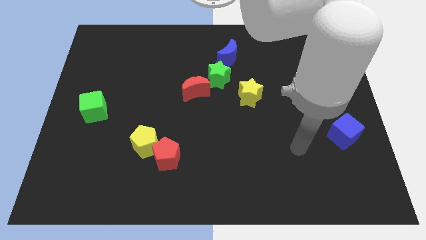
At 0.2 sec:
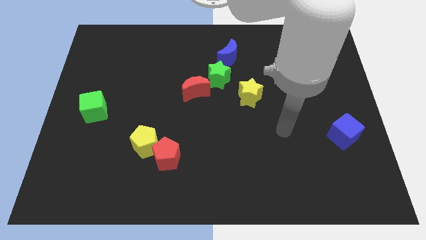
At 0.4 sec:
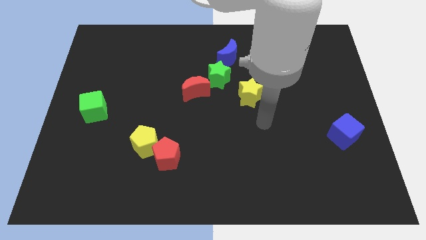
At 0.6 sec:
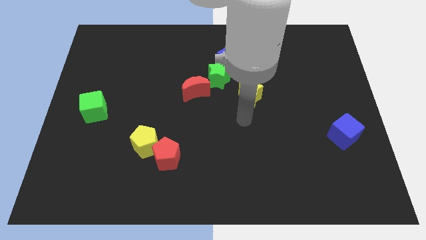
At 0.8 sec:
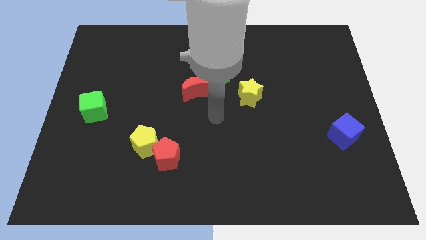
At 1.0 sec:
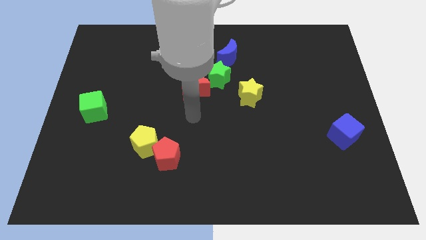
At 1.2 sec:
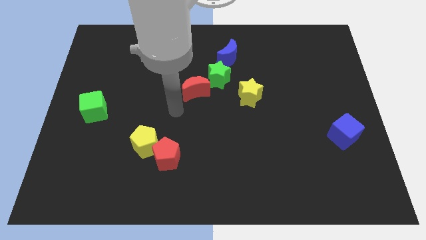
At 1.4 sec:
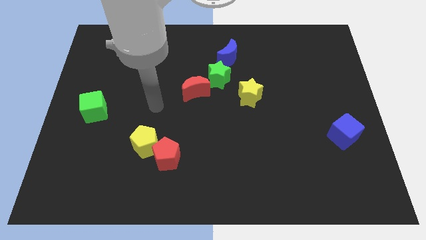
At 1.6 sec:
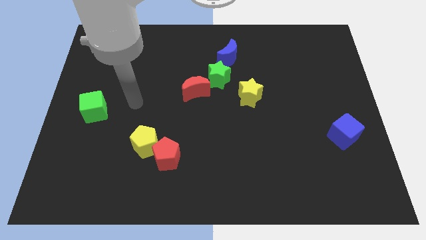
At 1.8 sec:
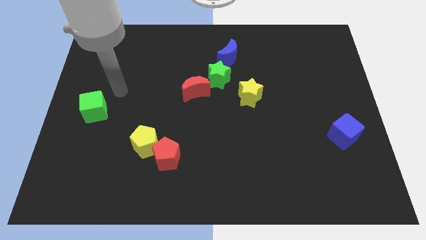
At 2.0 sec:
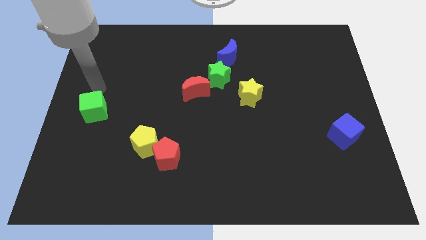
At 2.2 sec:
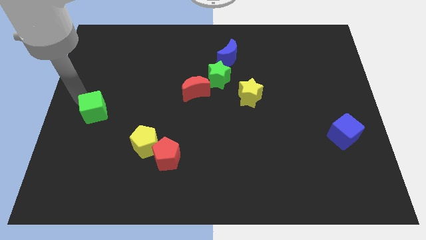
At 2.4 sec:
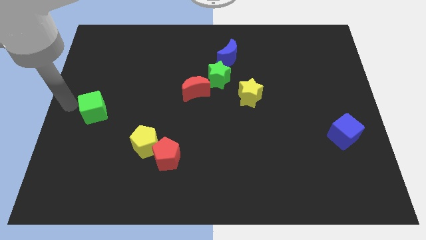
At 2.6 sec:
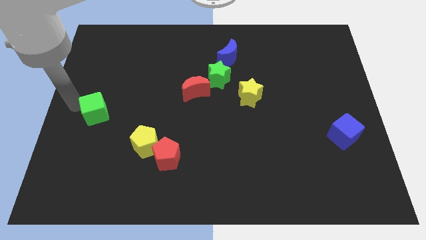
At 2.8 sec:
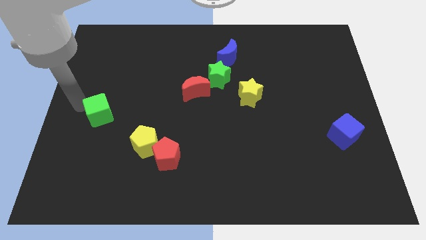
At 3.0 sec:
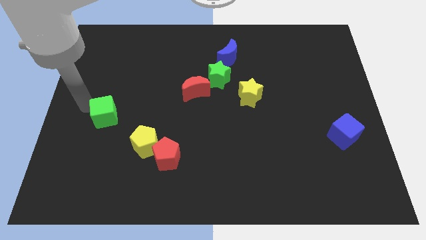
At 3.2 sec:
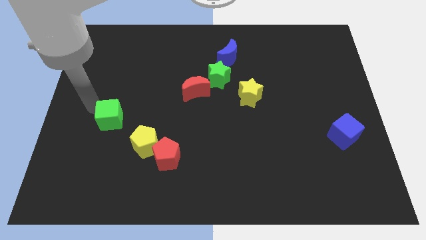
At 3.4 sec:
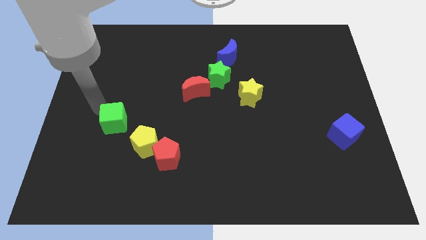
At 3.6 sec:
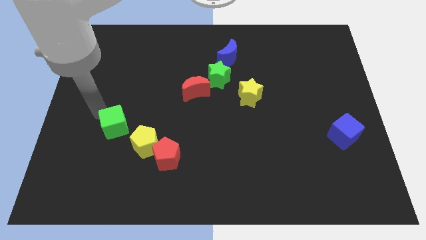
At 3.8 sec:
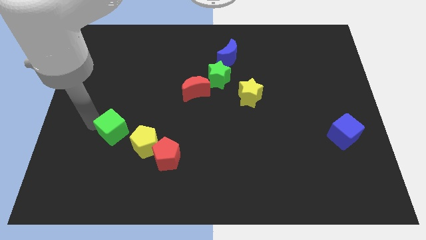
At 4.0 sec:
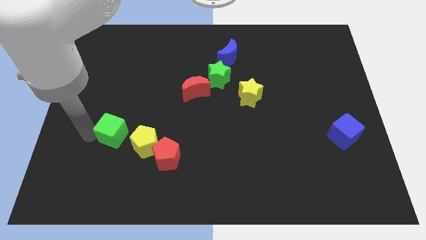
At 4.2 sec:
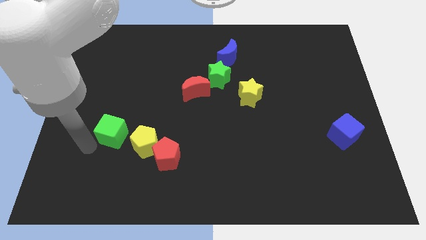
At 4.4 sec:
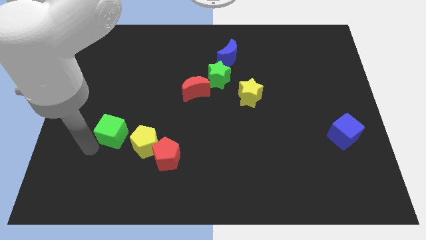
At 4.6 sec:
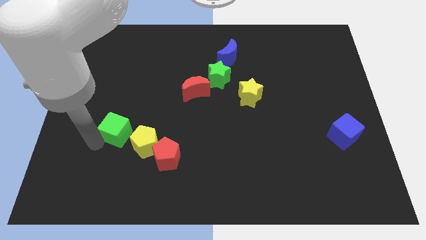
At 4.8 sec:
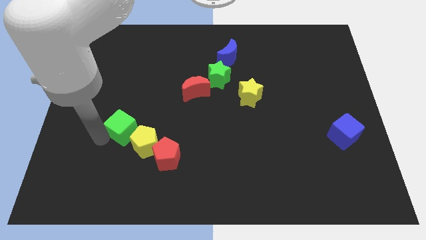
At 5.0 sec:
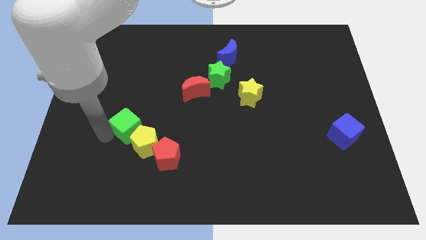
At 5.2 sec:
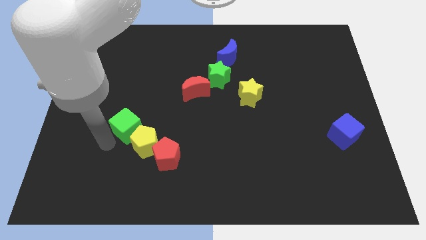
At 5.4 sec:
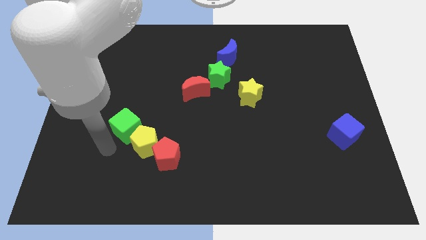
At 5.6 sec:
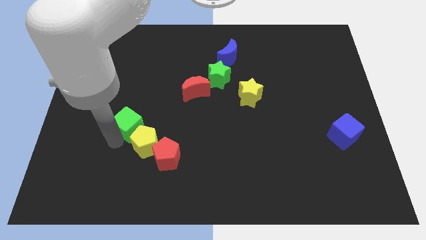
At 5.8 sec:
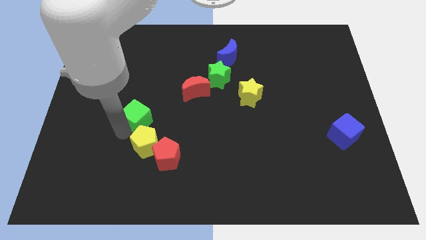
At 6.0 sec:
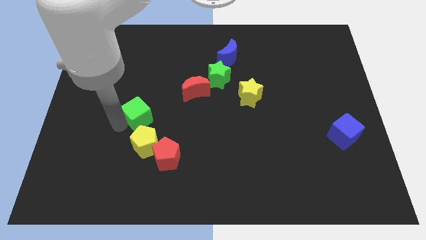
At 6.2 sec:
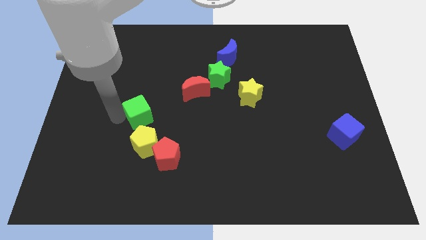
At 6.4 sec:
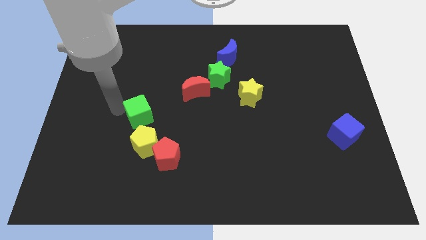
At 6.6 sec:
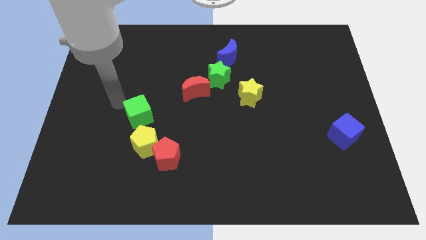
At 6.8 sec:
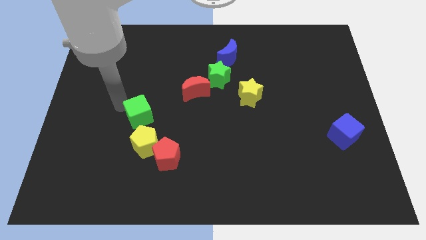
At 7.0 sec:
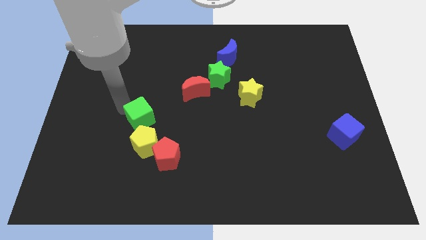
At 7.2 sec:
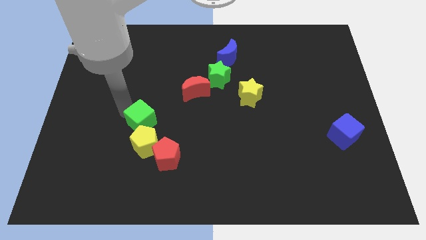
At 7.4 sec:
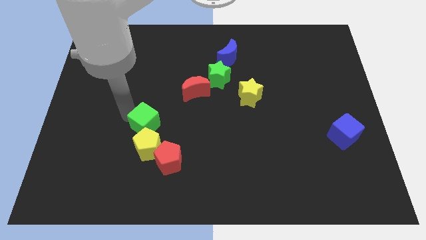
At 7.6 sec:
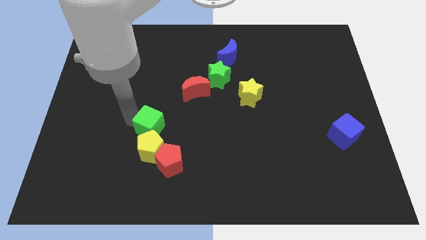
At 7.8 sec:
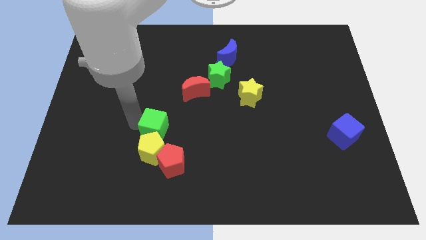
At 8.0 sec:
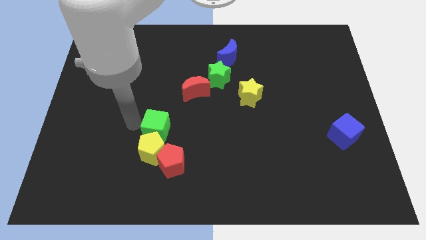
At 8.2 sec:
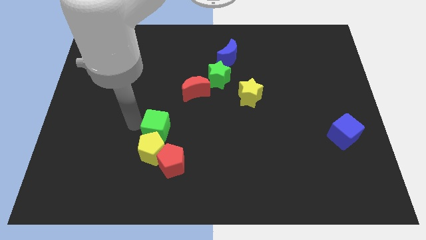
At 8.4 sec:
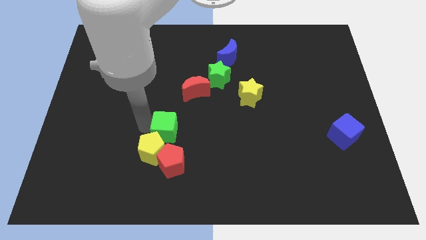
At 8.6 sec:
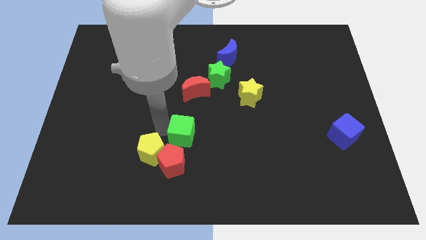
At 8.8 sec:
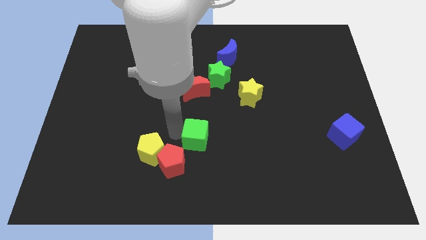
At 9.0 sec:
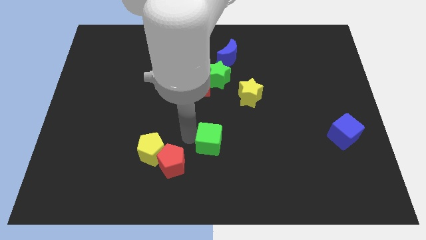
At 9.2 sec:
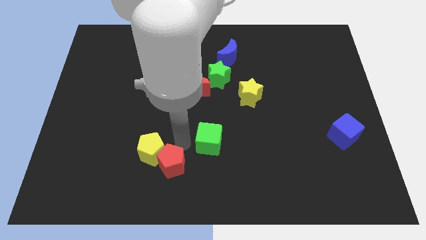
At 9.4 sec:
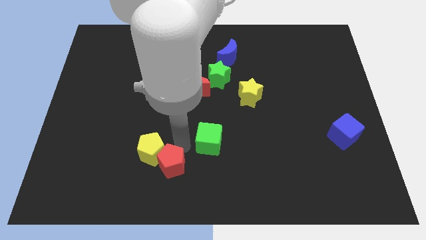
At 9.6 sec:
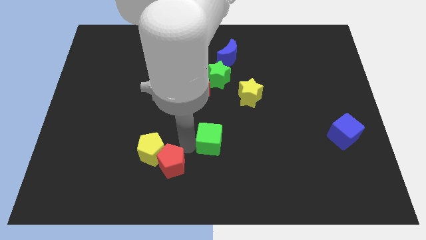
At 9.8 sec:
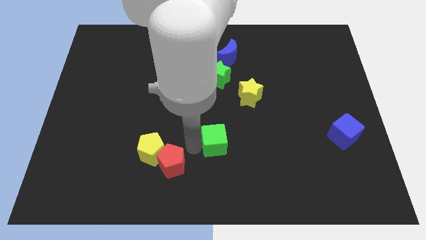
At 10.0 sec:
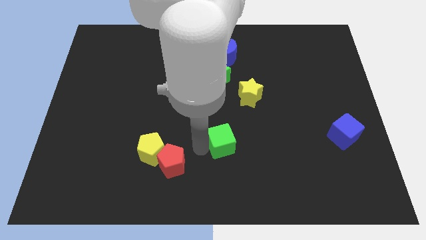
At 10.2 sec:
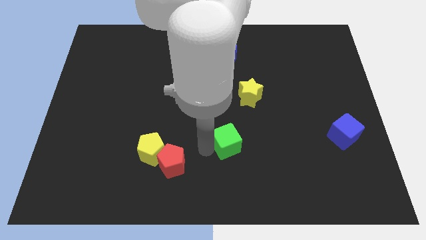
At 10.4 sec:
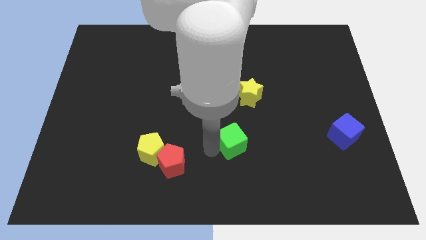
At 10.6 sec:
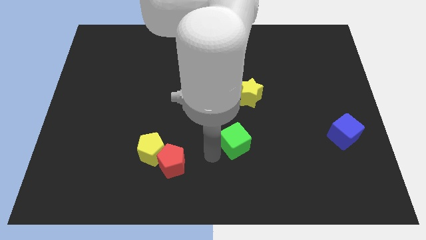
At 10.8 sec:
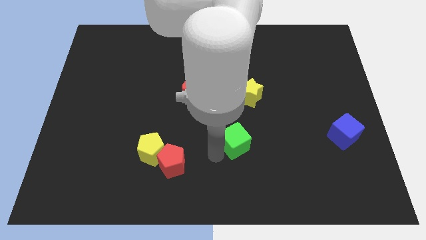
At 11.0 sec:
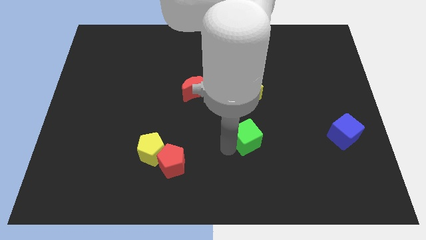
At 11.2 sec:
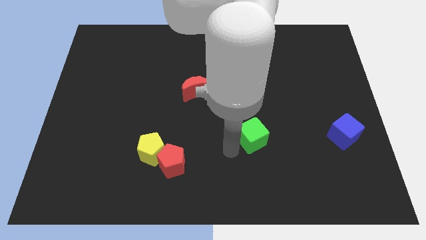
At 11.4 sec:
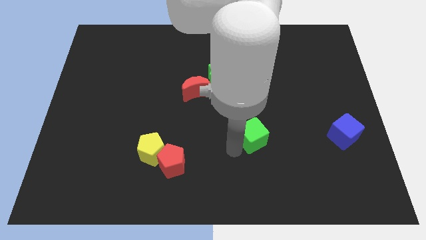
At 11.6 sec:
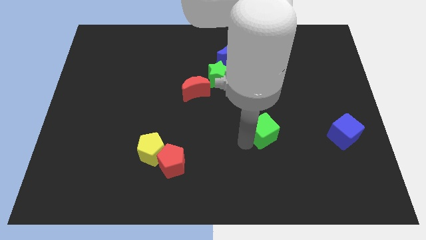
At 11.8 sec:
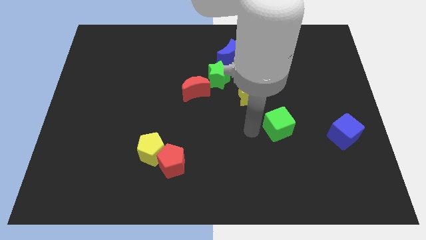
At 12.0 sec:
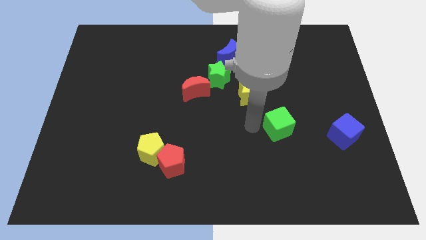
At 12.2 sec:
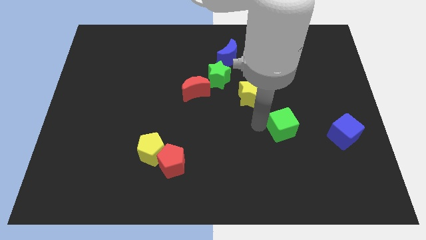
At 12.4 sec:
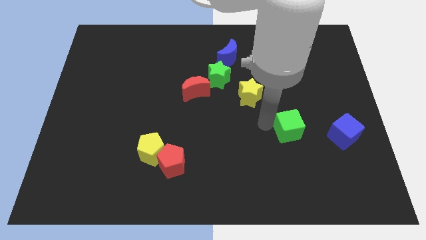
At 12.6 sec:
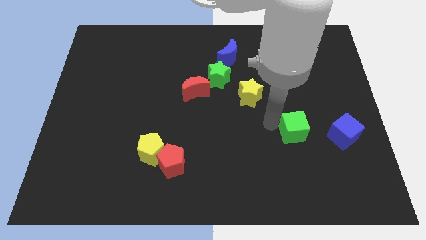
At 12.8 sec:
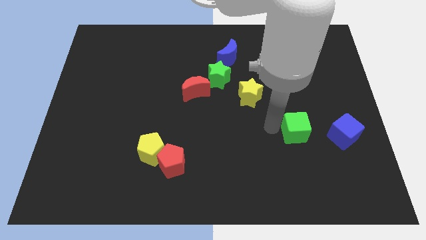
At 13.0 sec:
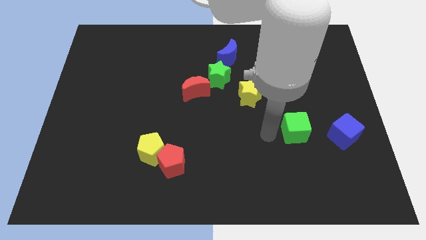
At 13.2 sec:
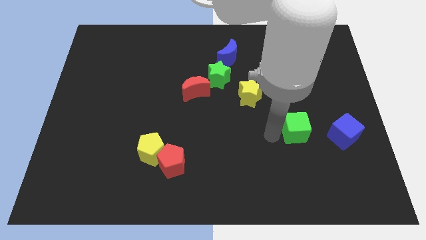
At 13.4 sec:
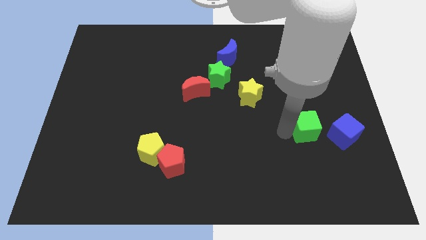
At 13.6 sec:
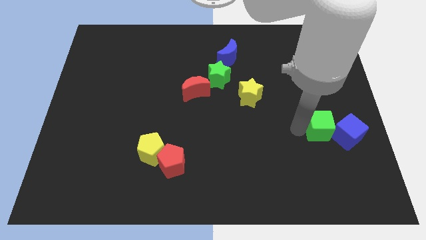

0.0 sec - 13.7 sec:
put the green cube next to the blue cube

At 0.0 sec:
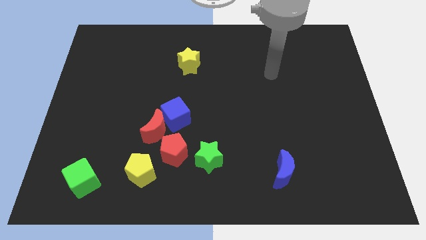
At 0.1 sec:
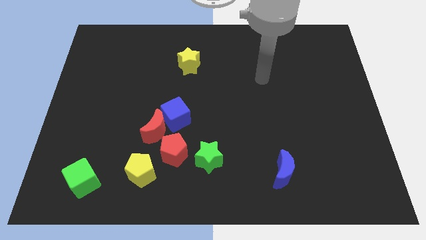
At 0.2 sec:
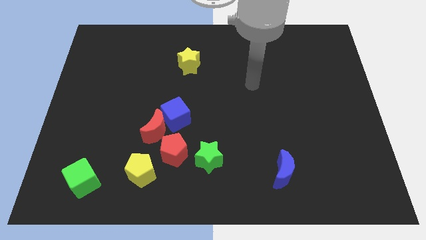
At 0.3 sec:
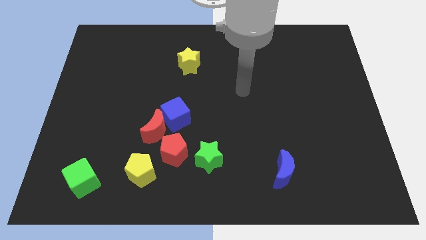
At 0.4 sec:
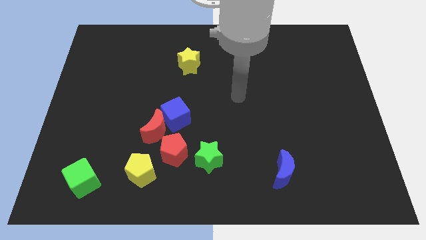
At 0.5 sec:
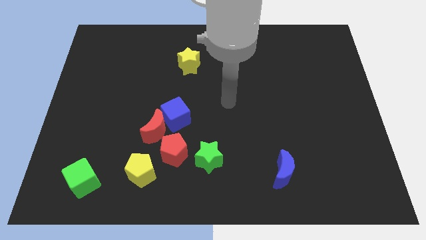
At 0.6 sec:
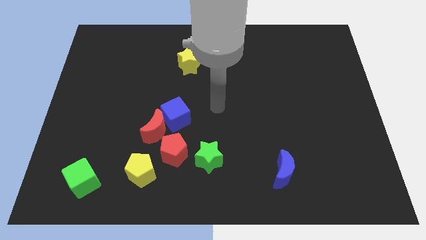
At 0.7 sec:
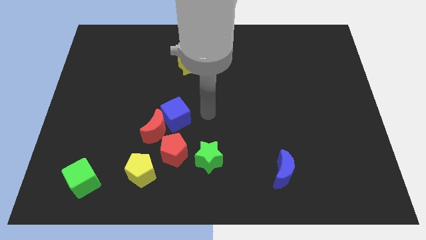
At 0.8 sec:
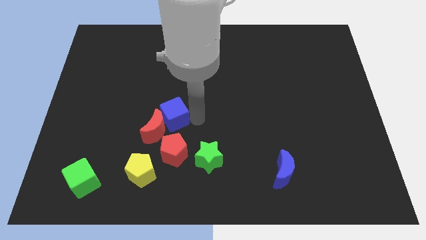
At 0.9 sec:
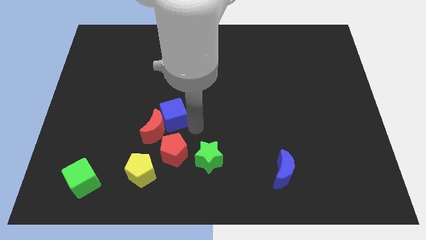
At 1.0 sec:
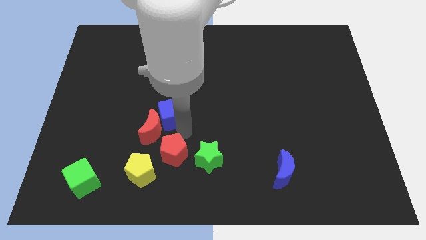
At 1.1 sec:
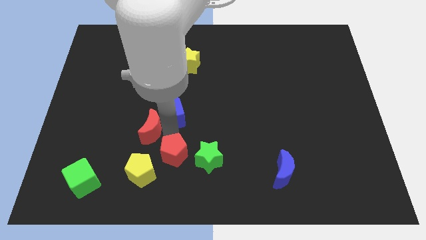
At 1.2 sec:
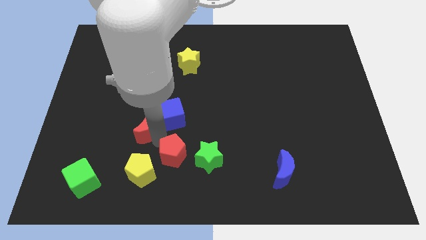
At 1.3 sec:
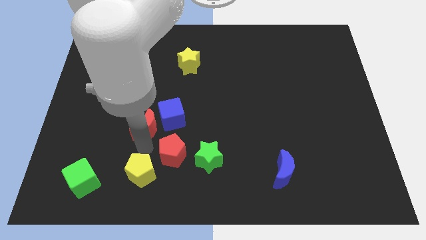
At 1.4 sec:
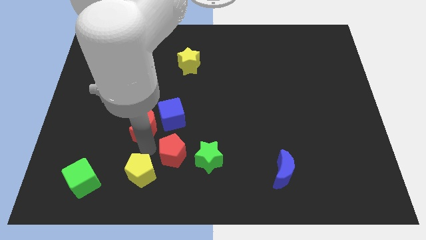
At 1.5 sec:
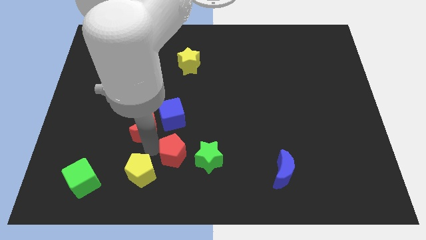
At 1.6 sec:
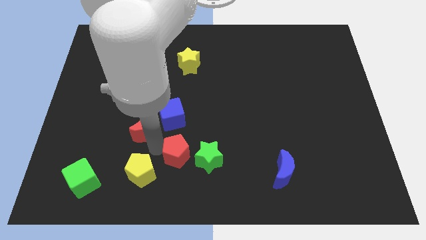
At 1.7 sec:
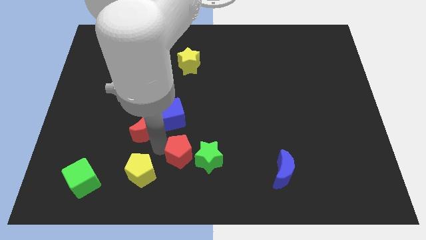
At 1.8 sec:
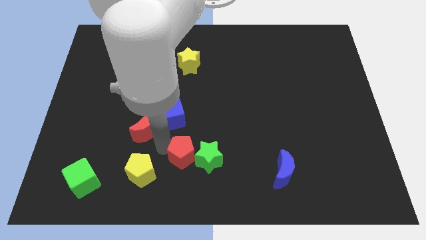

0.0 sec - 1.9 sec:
move the red pentagon close to the green star
